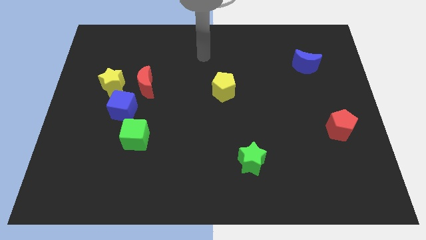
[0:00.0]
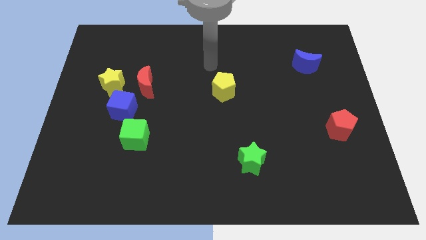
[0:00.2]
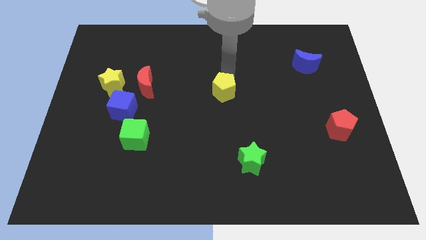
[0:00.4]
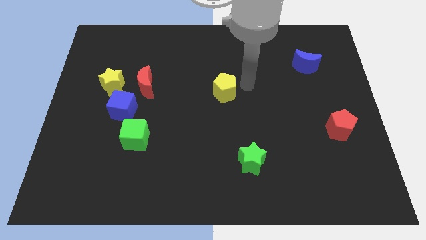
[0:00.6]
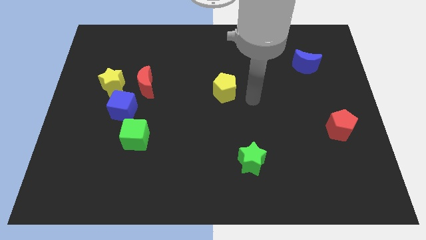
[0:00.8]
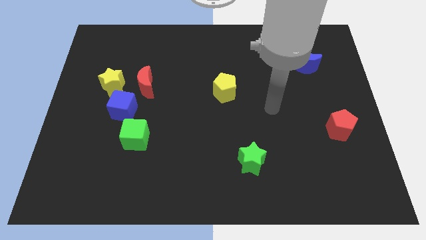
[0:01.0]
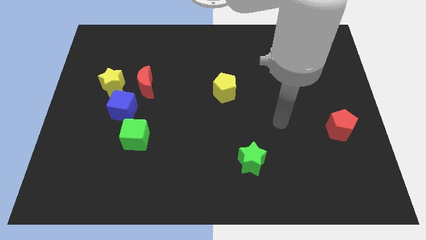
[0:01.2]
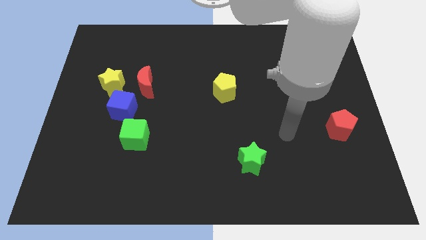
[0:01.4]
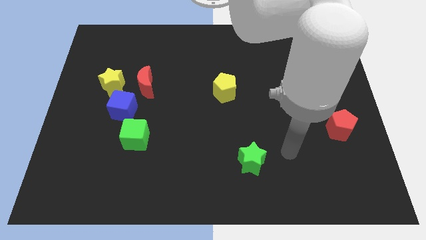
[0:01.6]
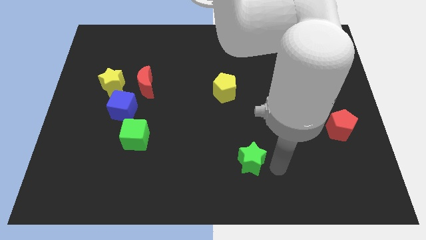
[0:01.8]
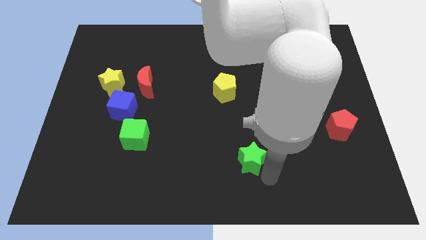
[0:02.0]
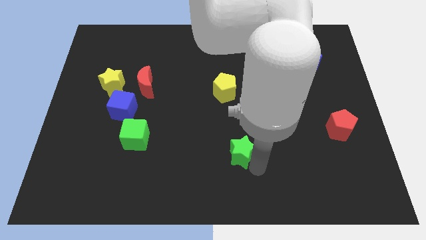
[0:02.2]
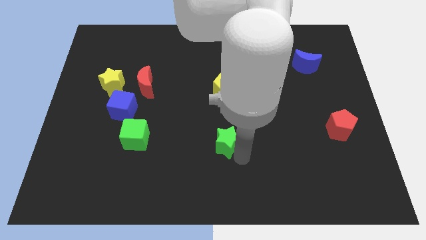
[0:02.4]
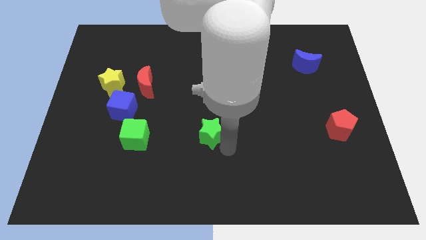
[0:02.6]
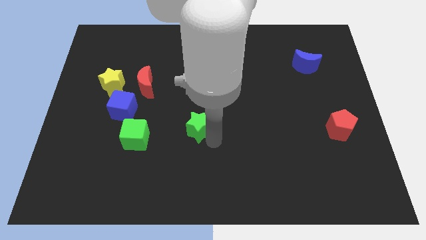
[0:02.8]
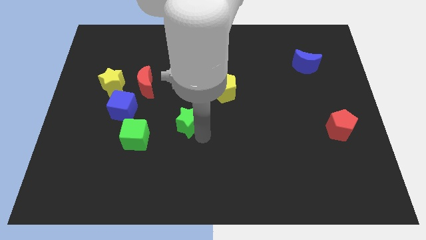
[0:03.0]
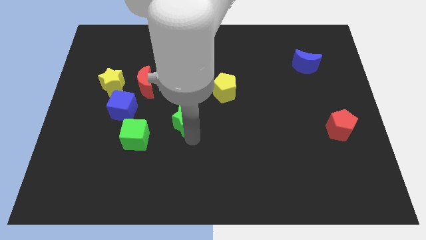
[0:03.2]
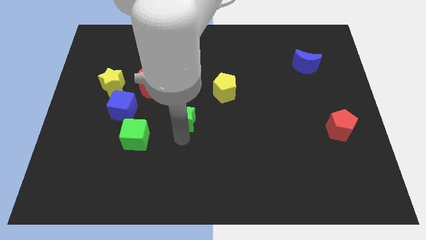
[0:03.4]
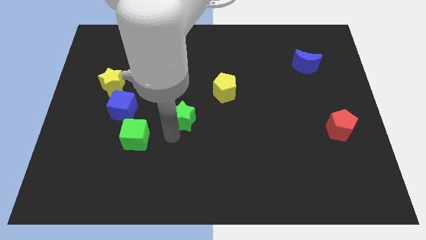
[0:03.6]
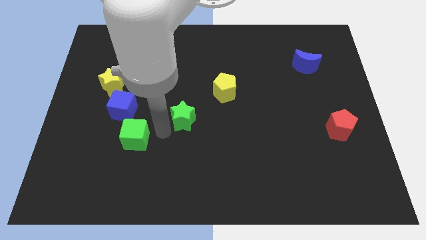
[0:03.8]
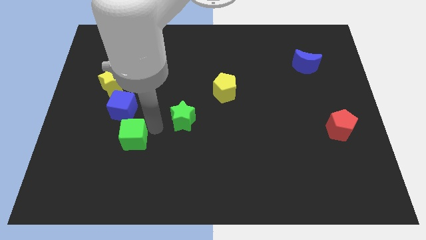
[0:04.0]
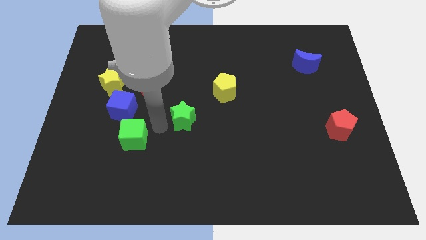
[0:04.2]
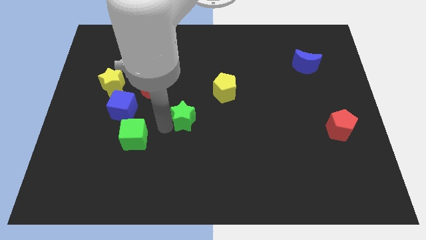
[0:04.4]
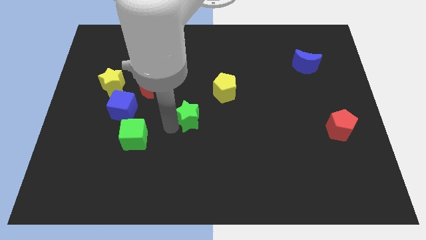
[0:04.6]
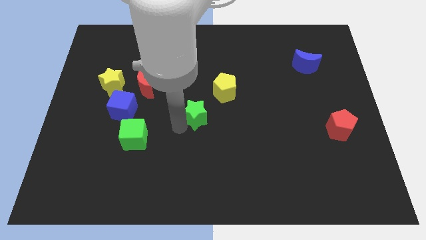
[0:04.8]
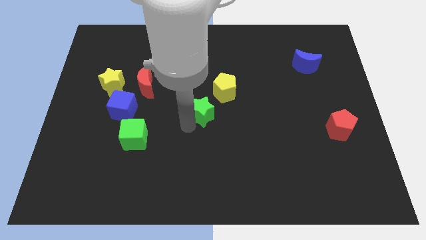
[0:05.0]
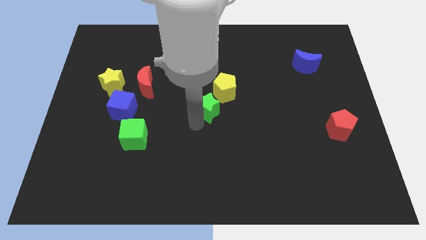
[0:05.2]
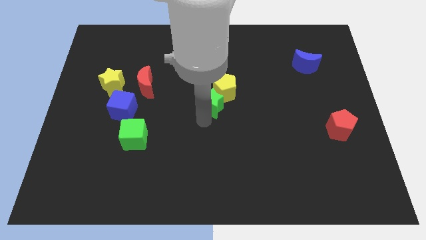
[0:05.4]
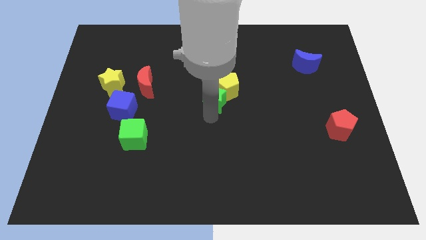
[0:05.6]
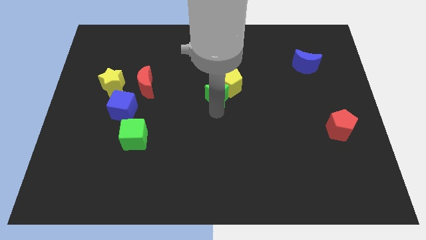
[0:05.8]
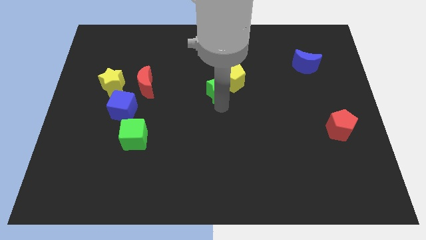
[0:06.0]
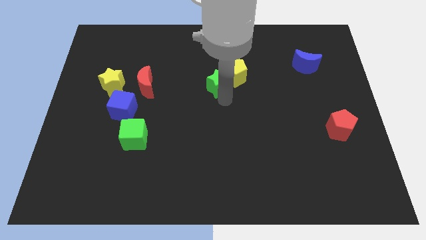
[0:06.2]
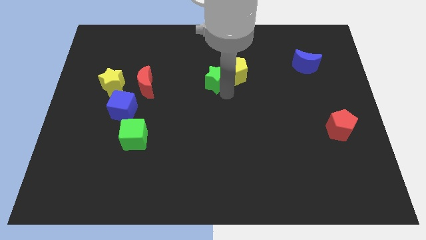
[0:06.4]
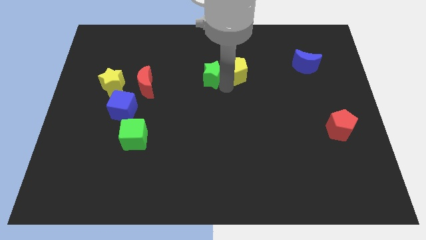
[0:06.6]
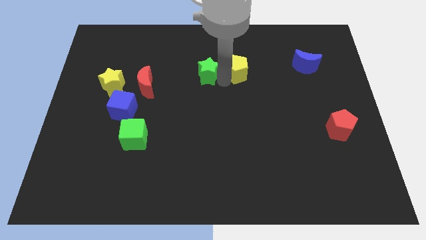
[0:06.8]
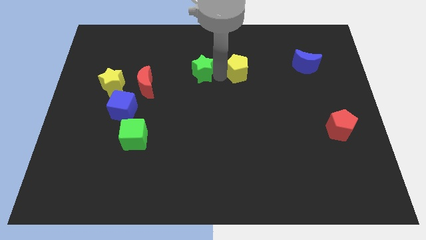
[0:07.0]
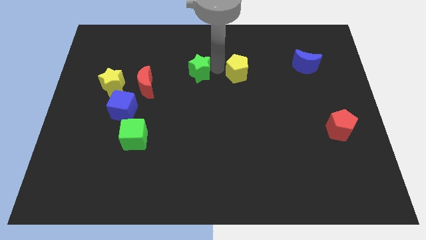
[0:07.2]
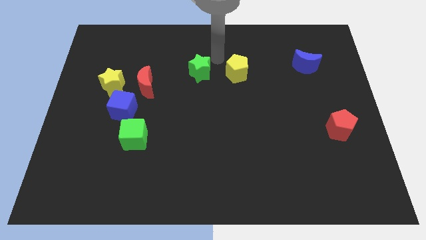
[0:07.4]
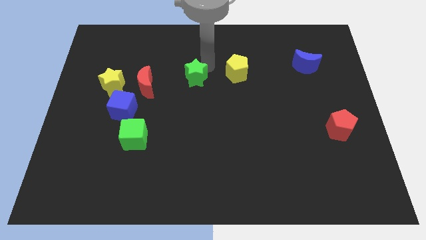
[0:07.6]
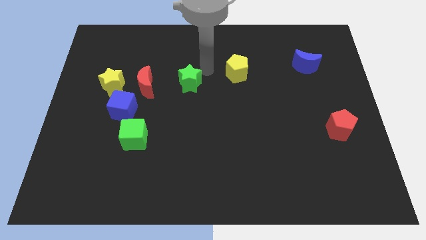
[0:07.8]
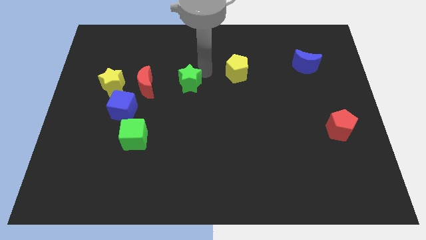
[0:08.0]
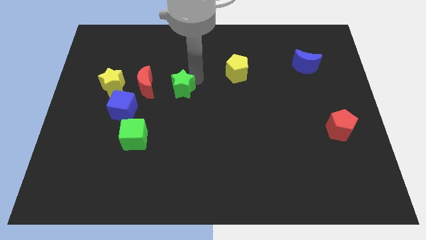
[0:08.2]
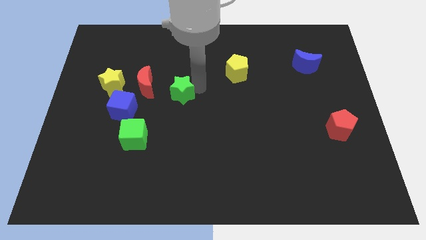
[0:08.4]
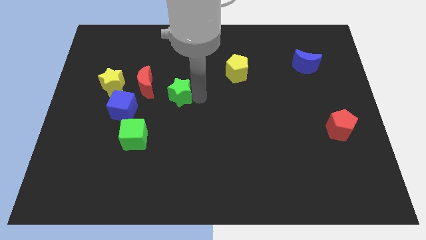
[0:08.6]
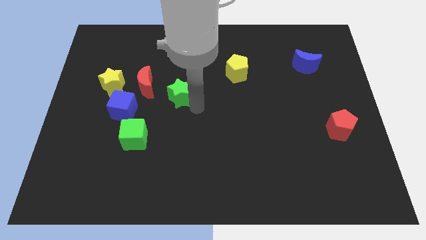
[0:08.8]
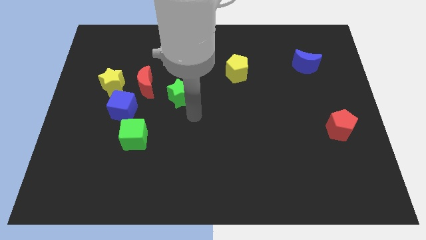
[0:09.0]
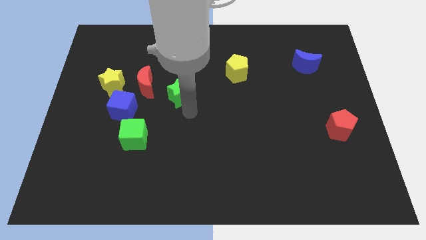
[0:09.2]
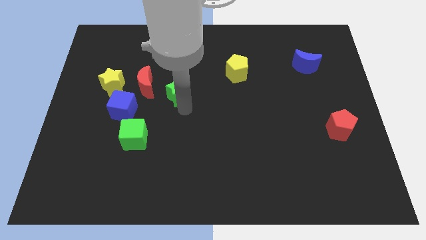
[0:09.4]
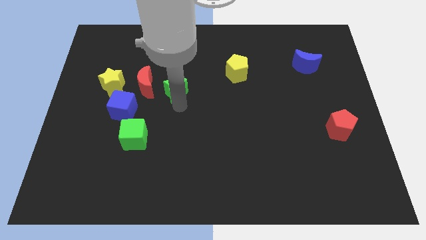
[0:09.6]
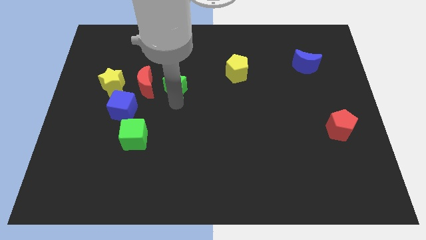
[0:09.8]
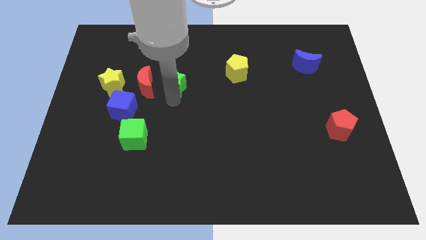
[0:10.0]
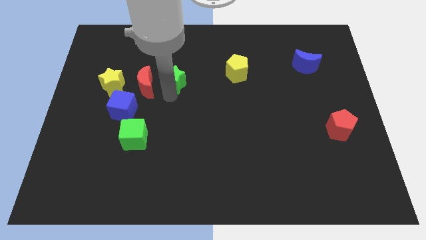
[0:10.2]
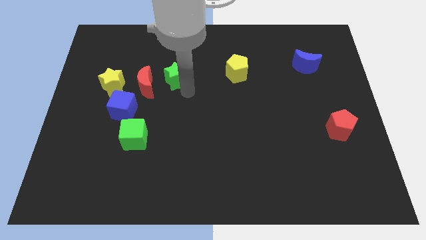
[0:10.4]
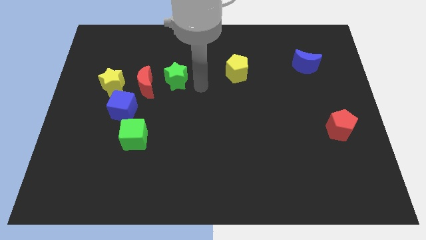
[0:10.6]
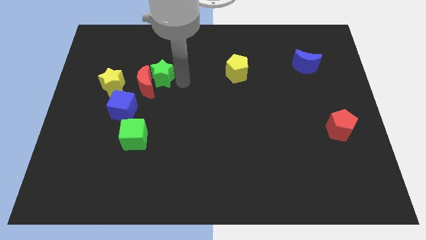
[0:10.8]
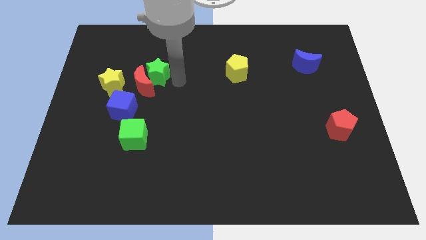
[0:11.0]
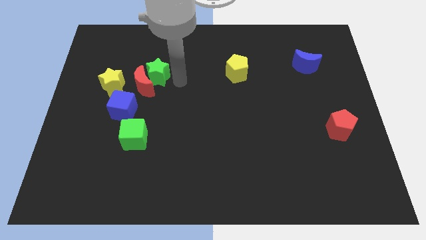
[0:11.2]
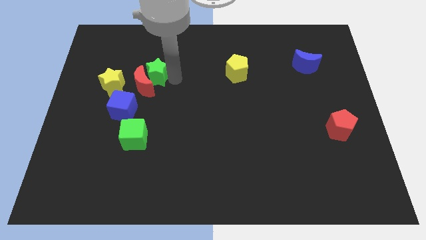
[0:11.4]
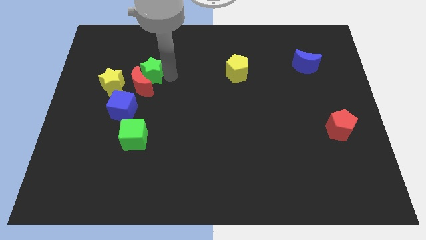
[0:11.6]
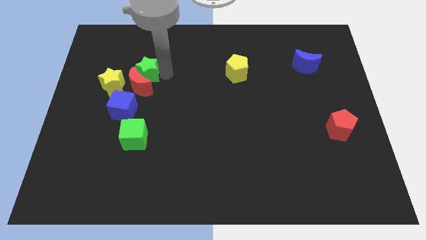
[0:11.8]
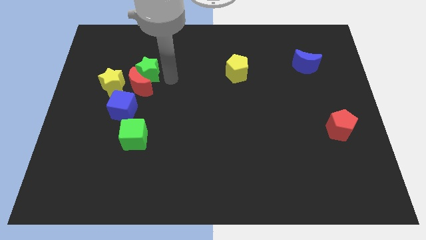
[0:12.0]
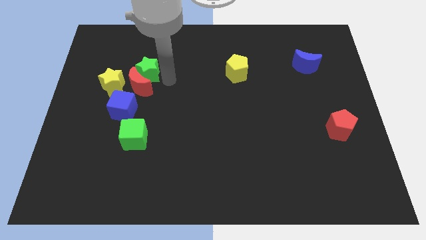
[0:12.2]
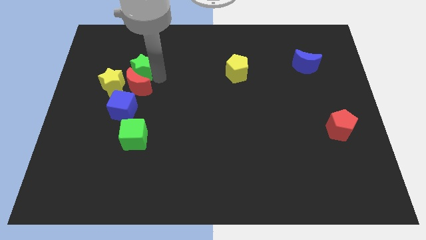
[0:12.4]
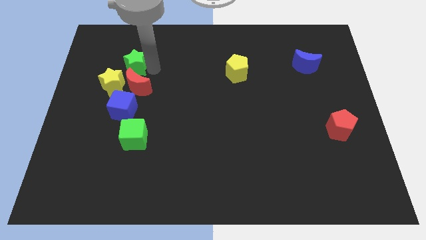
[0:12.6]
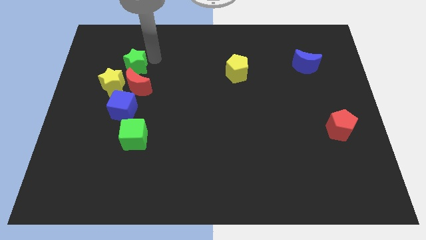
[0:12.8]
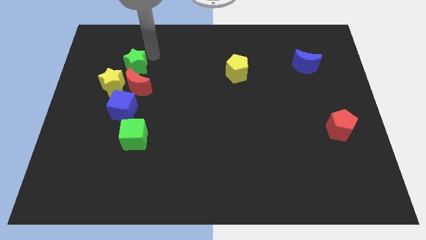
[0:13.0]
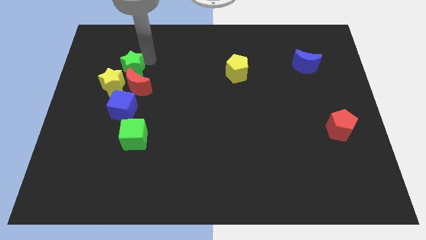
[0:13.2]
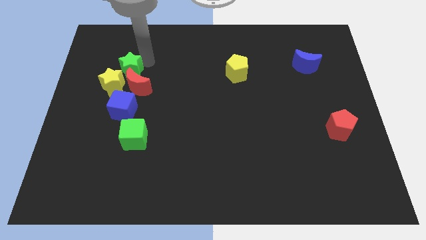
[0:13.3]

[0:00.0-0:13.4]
push the green star towards the yellow star

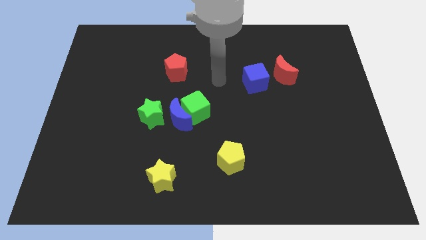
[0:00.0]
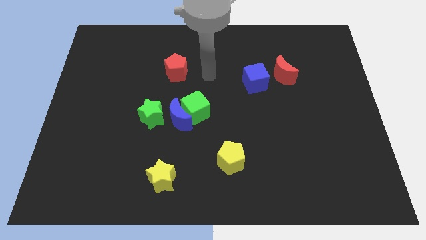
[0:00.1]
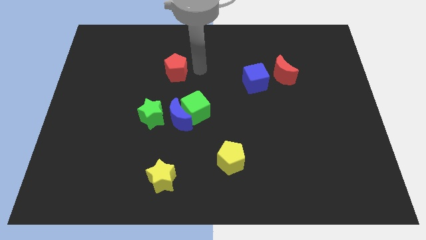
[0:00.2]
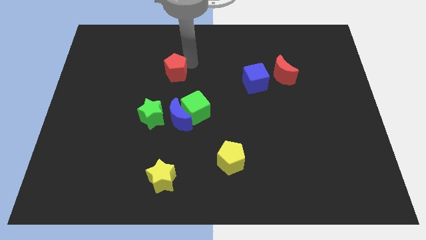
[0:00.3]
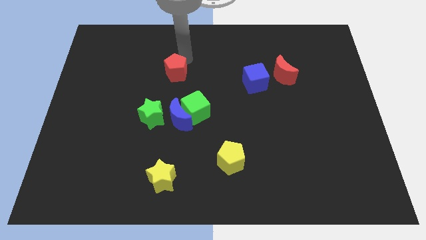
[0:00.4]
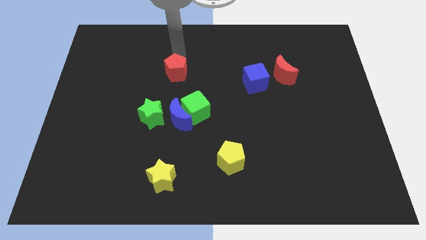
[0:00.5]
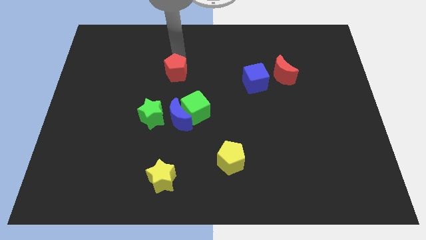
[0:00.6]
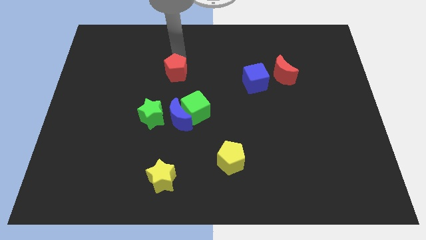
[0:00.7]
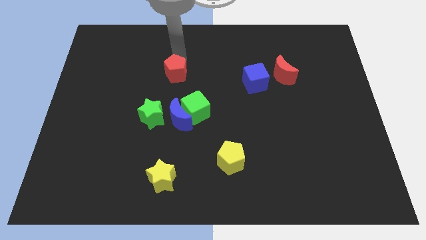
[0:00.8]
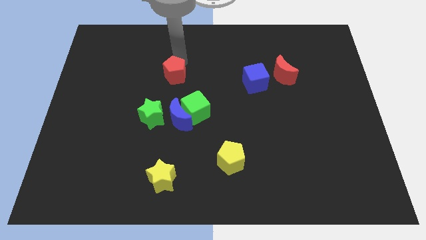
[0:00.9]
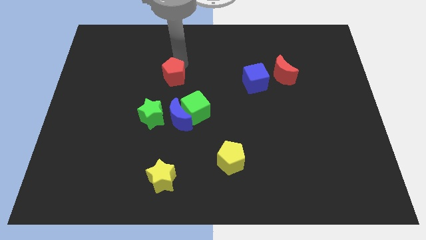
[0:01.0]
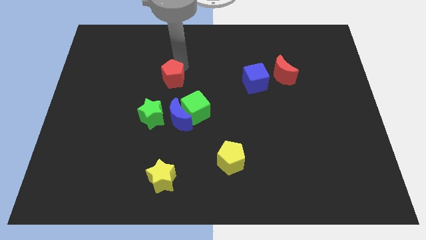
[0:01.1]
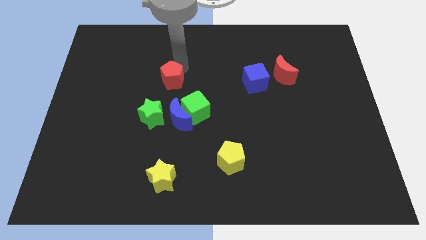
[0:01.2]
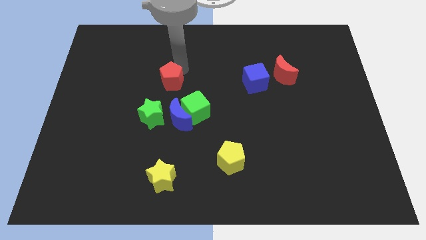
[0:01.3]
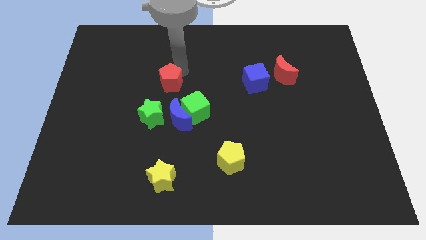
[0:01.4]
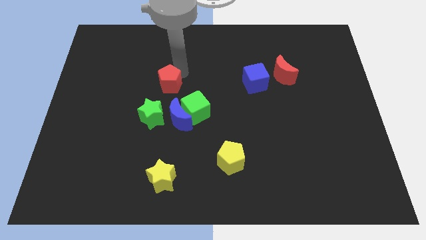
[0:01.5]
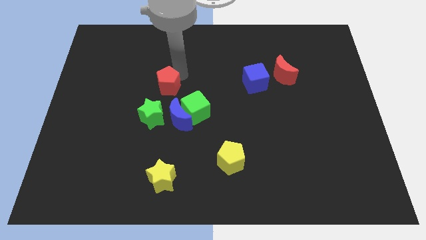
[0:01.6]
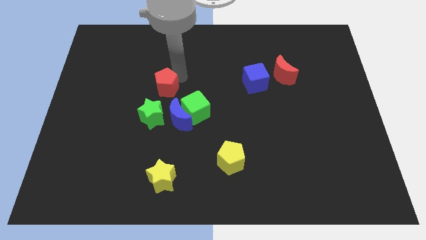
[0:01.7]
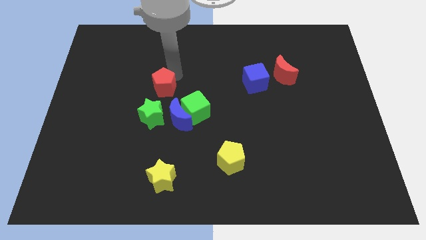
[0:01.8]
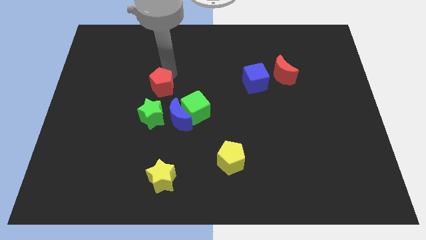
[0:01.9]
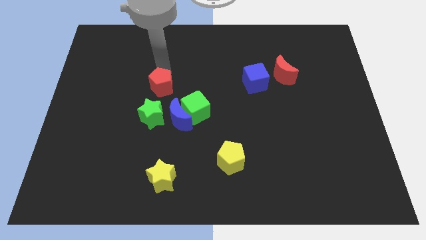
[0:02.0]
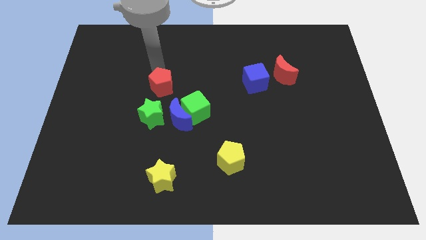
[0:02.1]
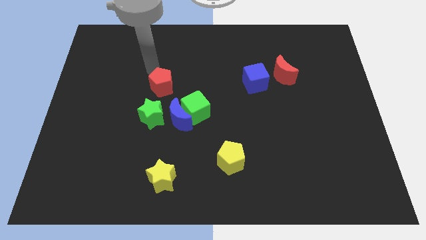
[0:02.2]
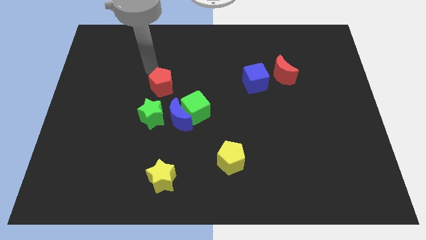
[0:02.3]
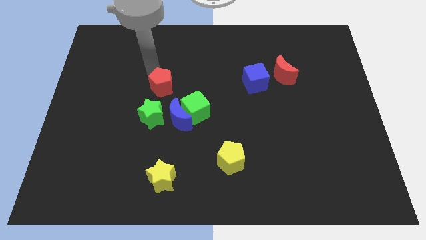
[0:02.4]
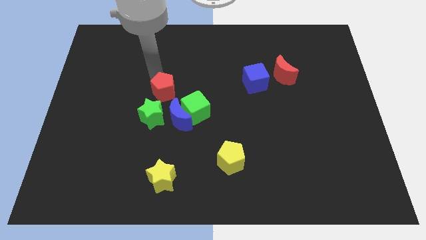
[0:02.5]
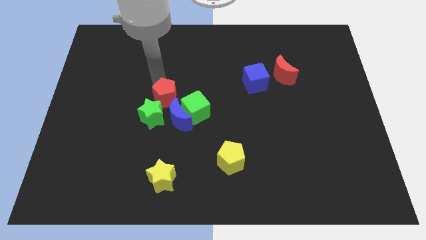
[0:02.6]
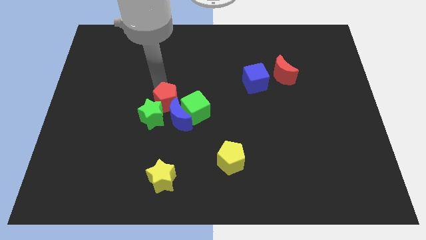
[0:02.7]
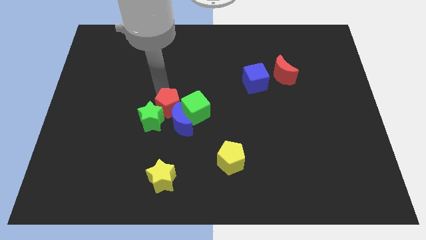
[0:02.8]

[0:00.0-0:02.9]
put the red pentagon next to the blue moon
